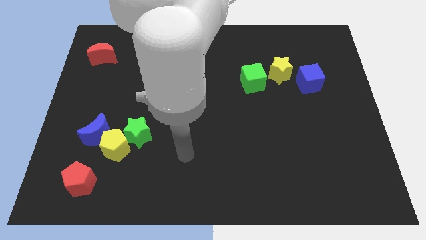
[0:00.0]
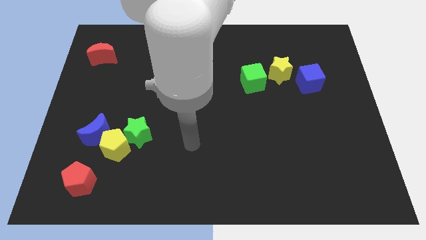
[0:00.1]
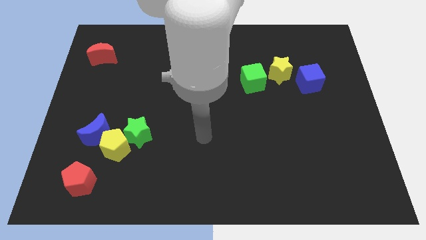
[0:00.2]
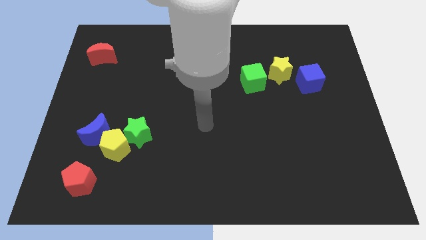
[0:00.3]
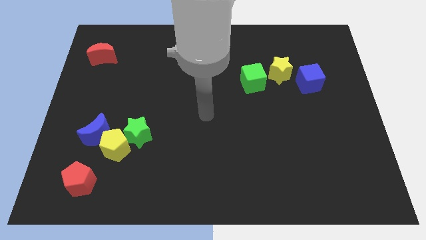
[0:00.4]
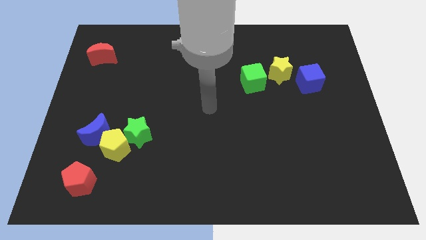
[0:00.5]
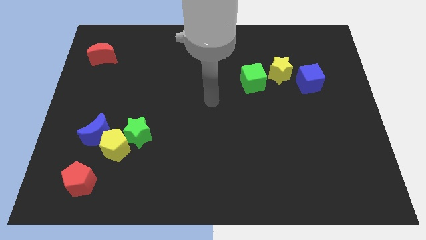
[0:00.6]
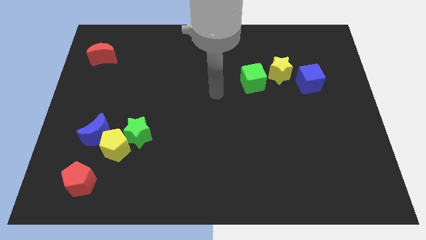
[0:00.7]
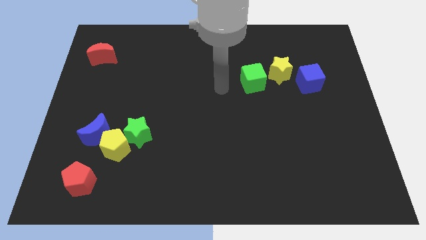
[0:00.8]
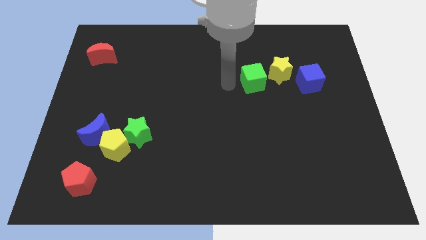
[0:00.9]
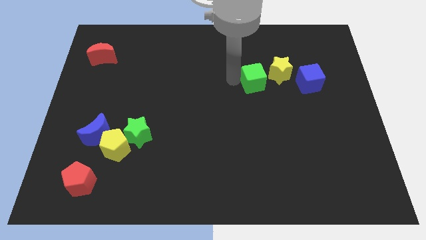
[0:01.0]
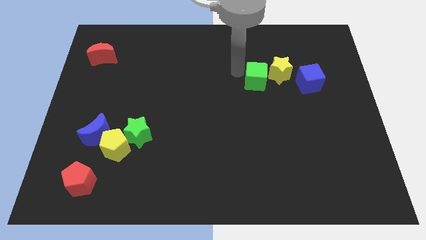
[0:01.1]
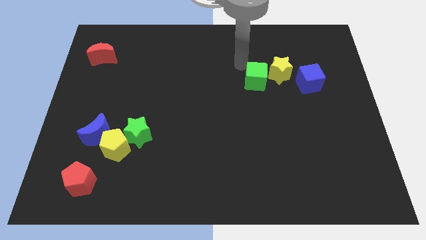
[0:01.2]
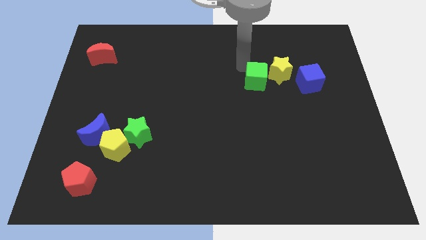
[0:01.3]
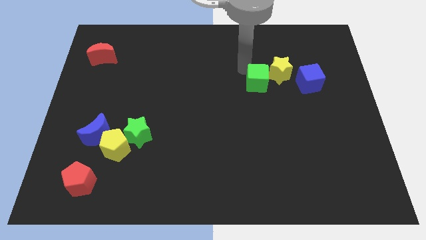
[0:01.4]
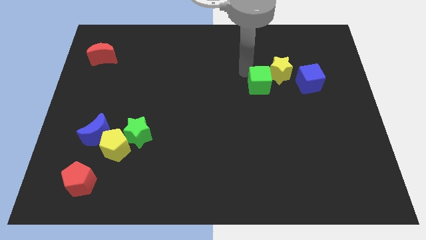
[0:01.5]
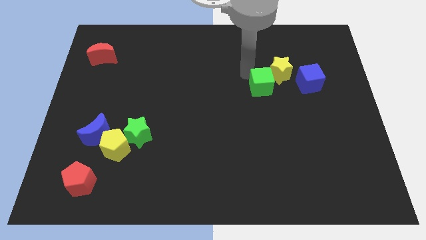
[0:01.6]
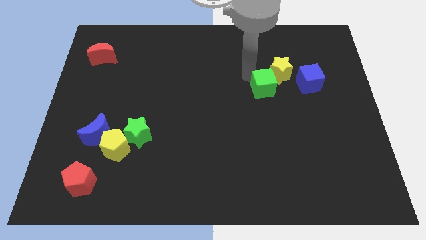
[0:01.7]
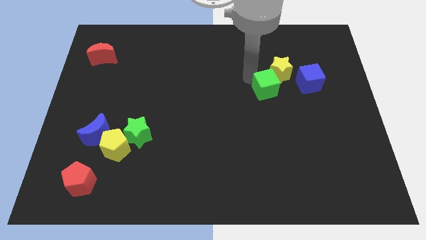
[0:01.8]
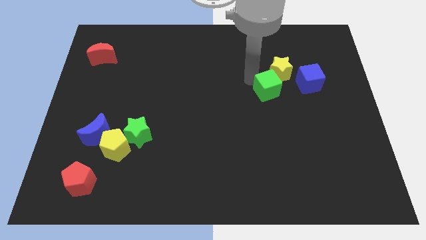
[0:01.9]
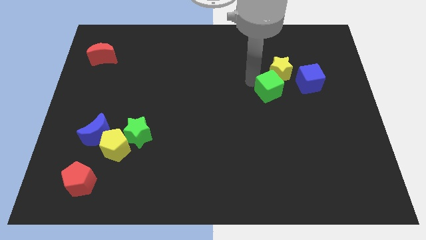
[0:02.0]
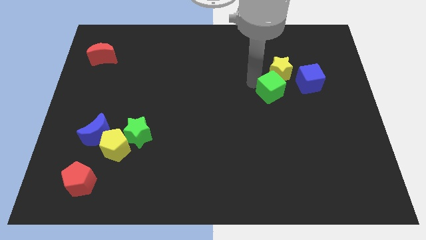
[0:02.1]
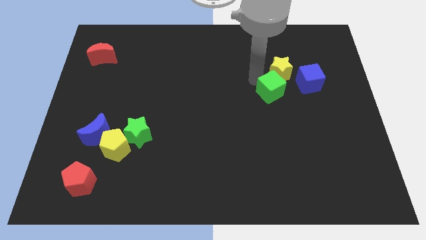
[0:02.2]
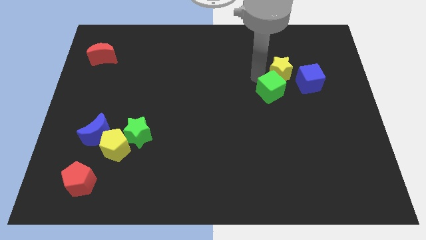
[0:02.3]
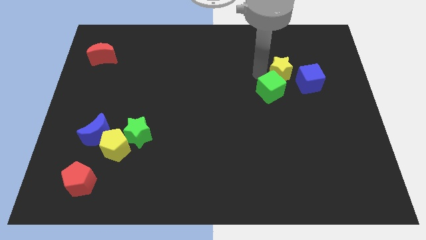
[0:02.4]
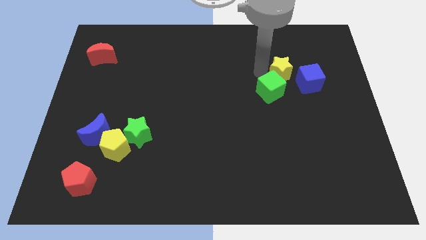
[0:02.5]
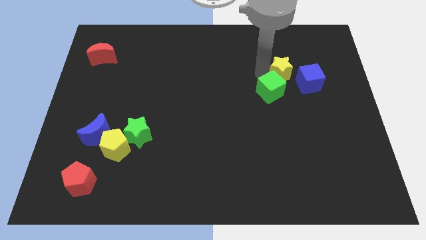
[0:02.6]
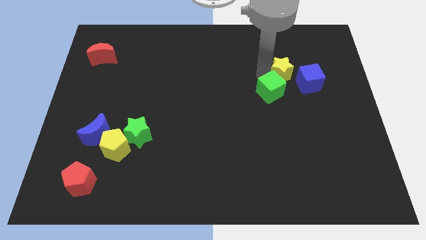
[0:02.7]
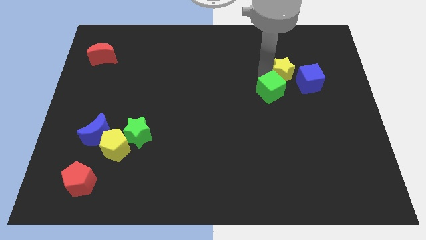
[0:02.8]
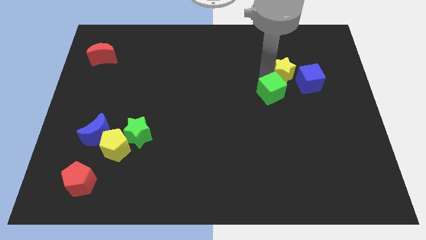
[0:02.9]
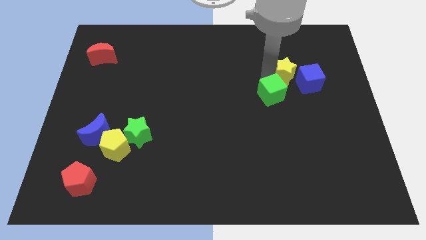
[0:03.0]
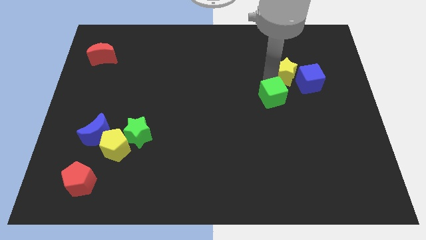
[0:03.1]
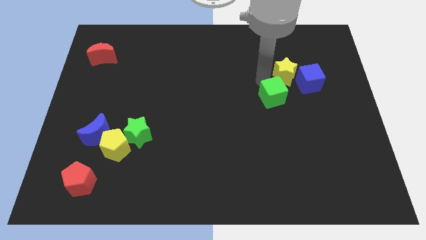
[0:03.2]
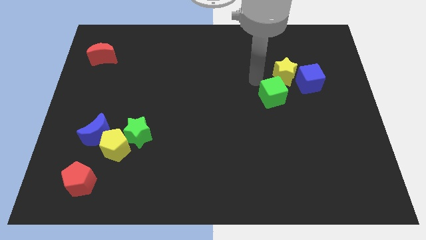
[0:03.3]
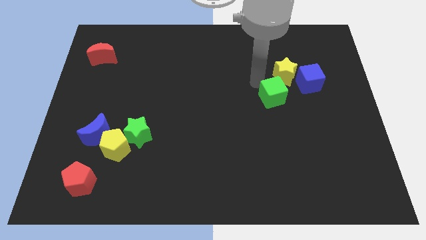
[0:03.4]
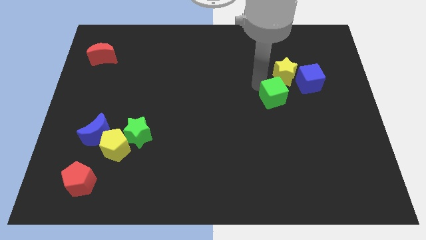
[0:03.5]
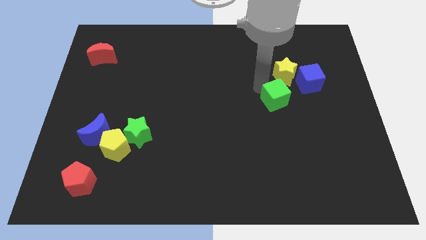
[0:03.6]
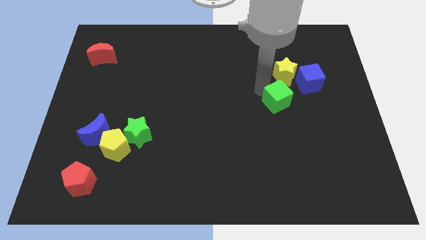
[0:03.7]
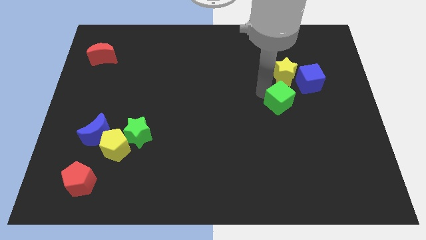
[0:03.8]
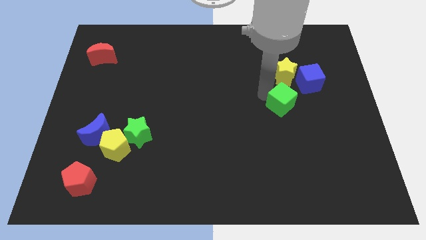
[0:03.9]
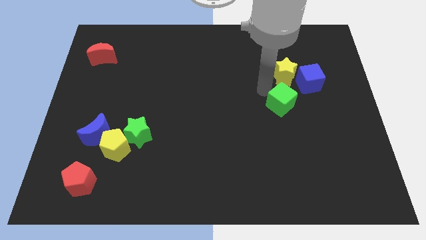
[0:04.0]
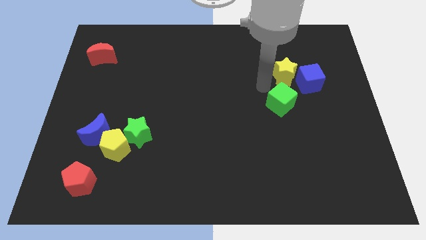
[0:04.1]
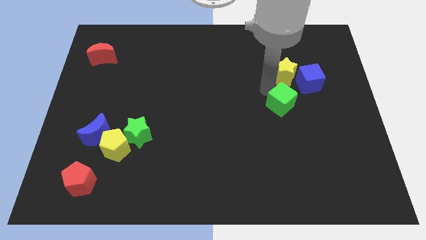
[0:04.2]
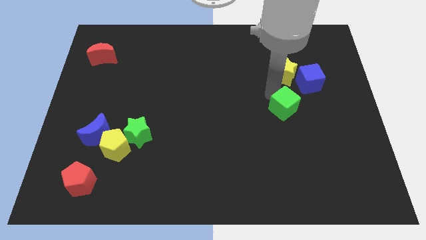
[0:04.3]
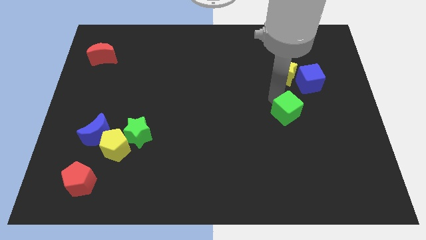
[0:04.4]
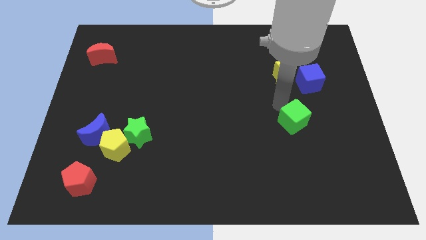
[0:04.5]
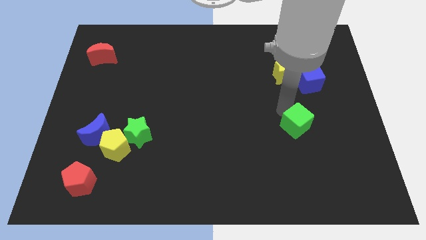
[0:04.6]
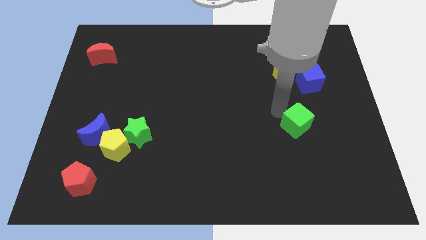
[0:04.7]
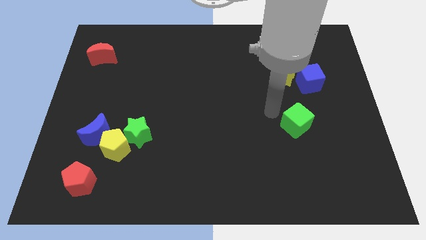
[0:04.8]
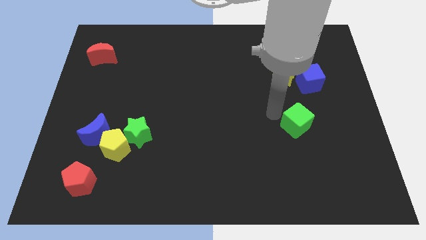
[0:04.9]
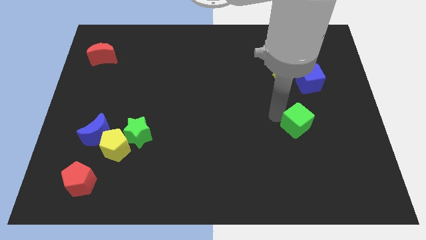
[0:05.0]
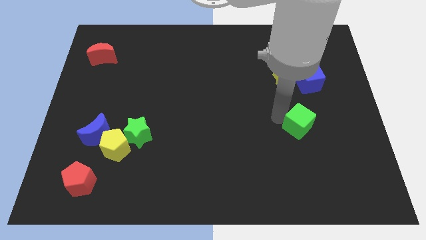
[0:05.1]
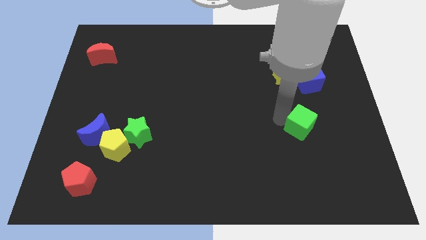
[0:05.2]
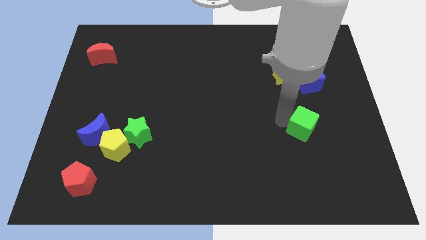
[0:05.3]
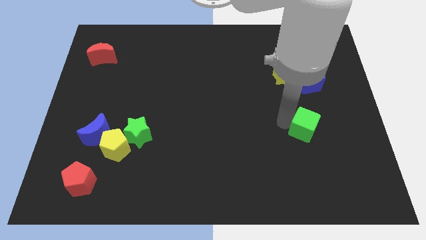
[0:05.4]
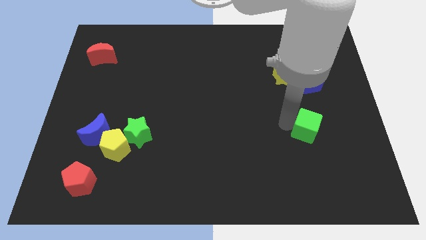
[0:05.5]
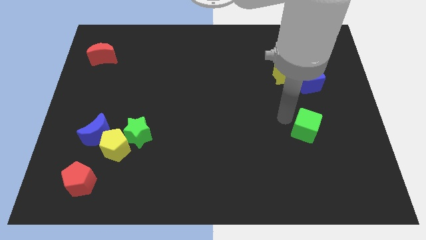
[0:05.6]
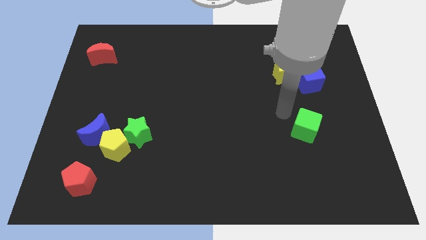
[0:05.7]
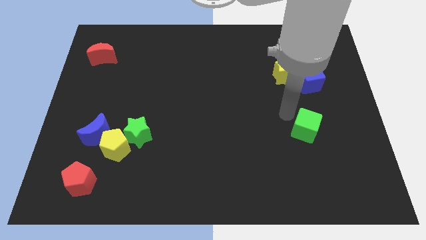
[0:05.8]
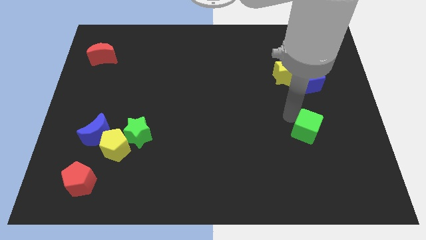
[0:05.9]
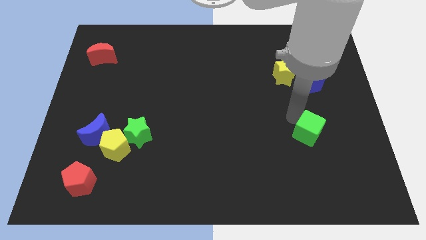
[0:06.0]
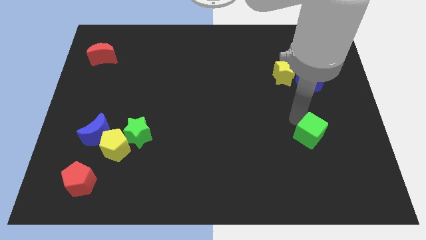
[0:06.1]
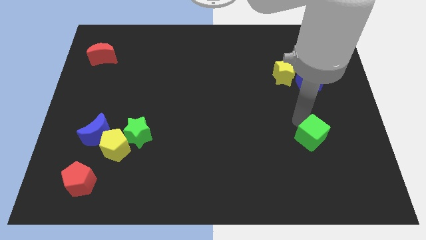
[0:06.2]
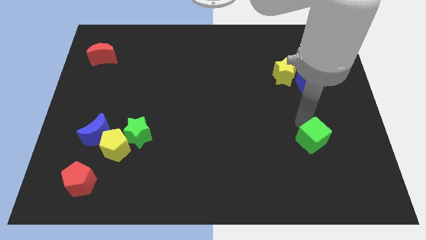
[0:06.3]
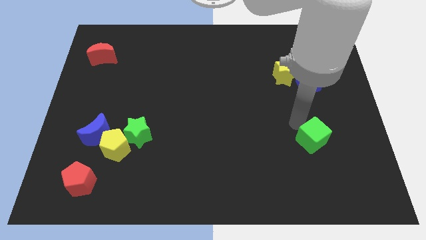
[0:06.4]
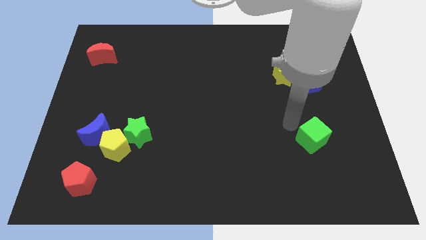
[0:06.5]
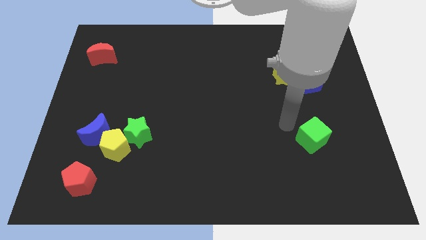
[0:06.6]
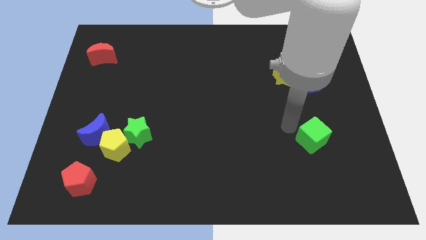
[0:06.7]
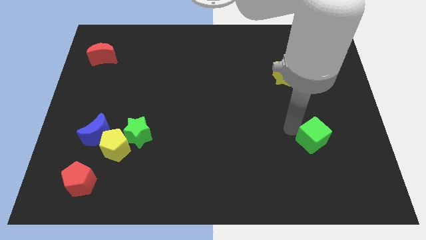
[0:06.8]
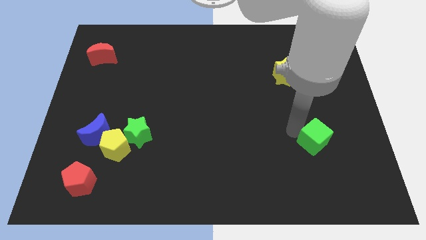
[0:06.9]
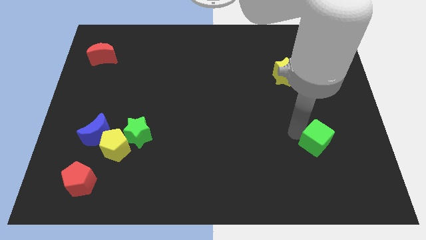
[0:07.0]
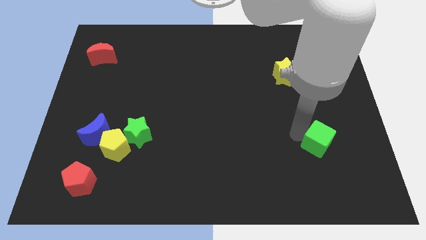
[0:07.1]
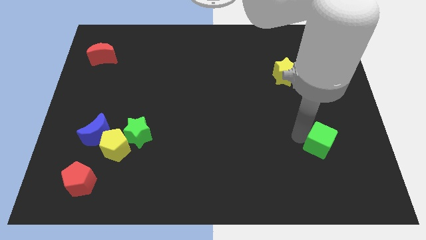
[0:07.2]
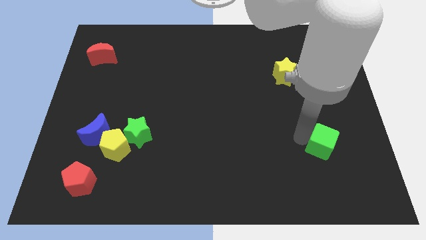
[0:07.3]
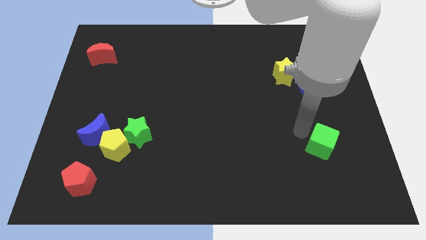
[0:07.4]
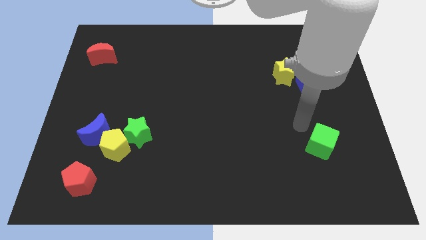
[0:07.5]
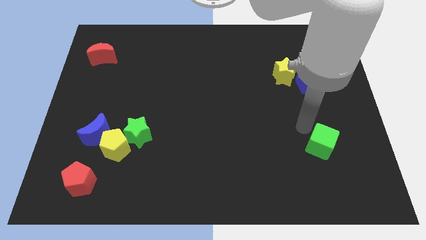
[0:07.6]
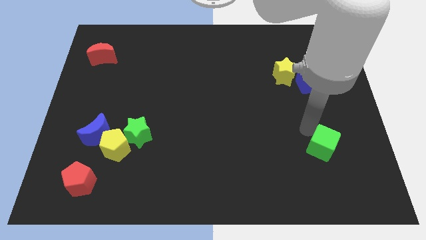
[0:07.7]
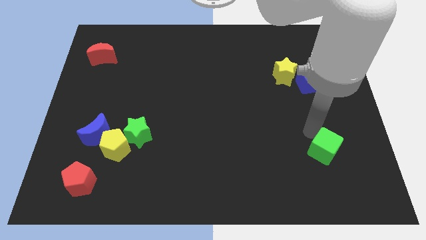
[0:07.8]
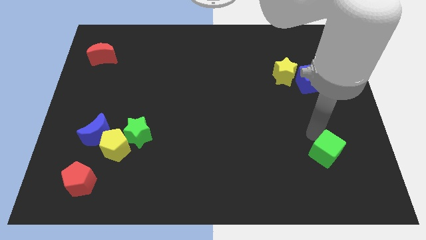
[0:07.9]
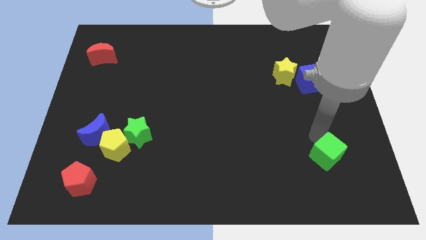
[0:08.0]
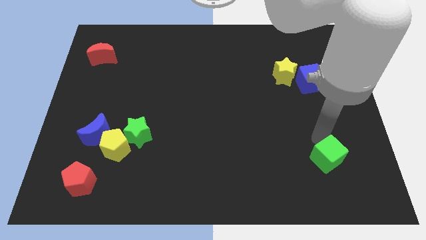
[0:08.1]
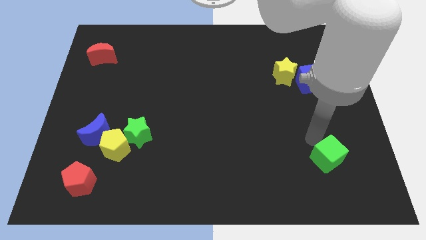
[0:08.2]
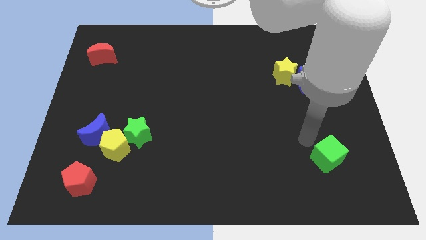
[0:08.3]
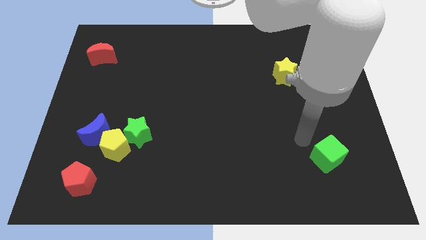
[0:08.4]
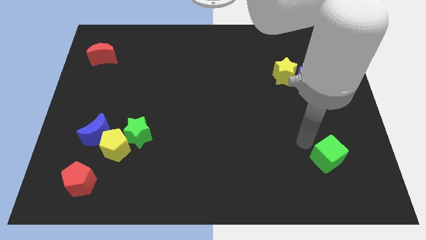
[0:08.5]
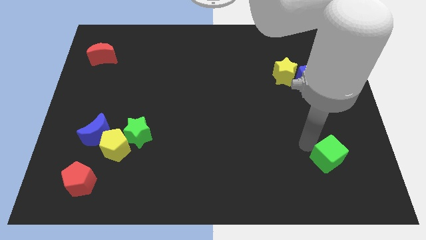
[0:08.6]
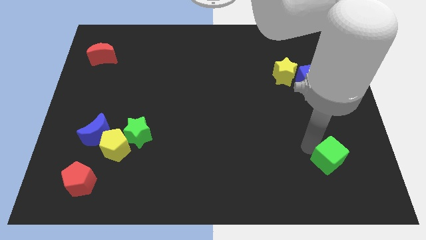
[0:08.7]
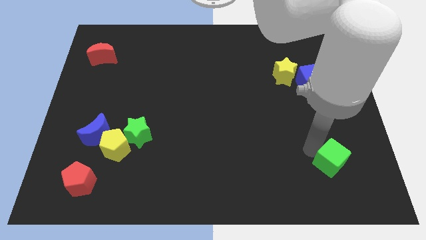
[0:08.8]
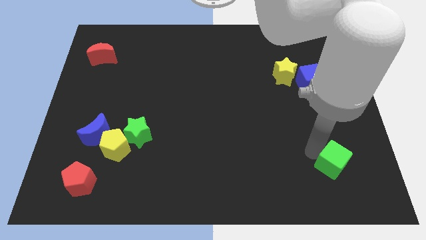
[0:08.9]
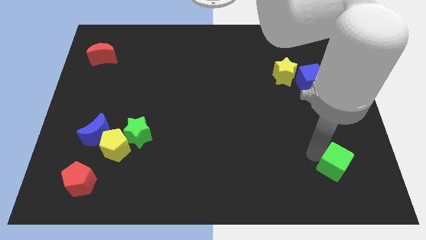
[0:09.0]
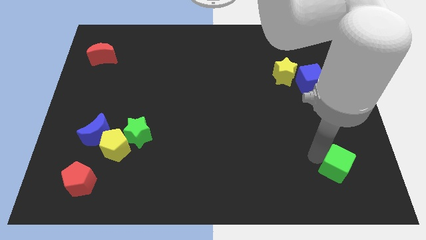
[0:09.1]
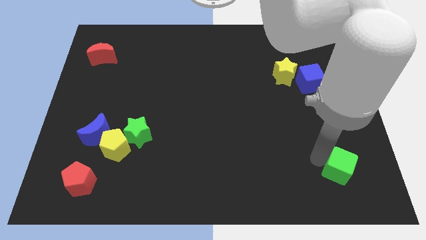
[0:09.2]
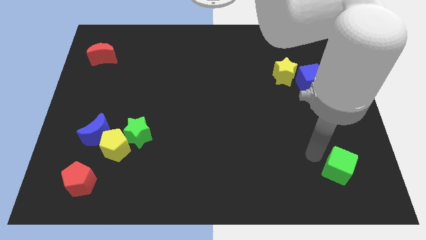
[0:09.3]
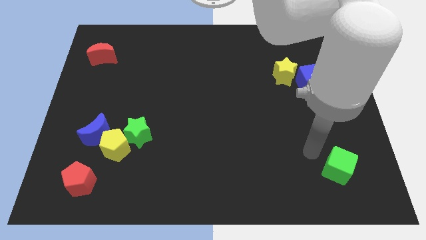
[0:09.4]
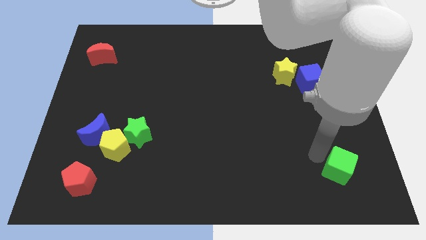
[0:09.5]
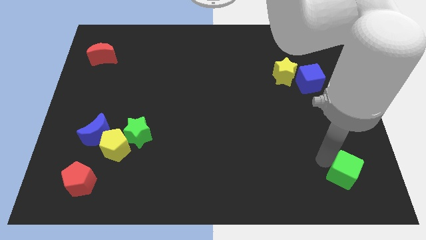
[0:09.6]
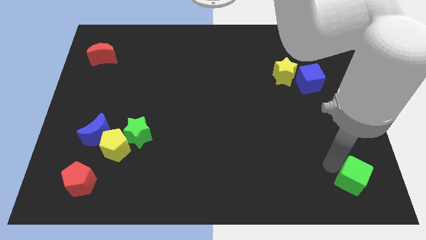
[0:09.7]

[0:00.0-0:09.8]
slide the green cube to the bottom right of the board
